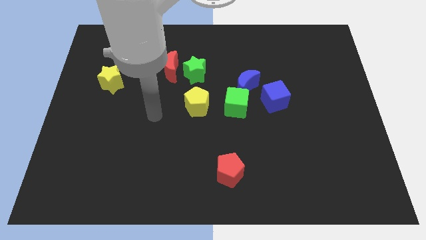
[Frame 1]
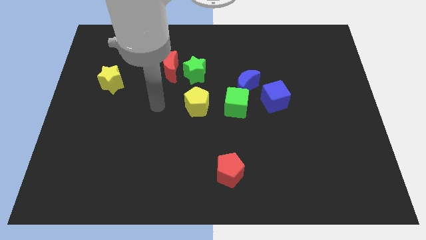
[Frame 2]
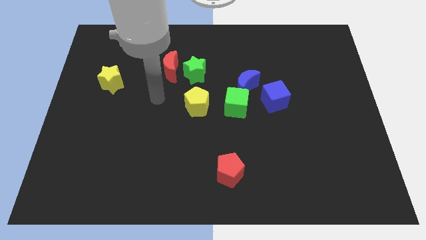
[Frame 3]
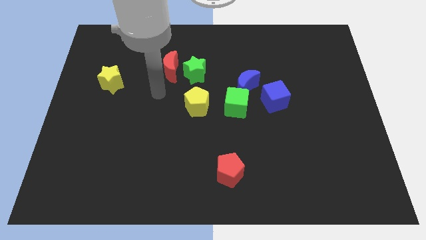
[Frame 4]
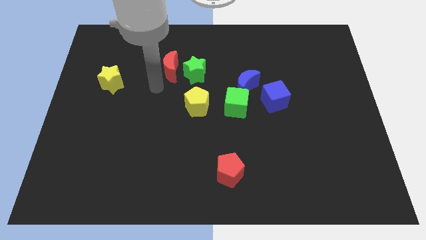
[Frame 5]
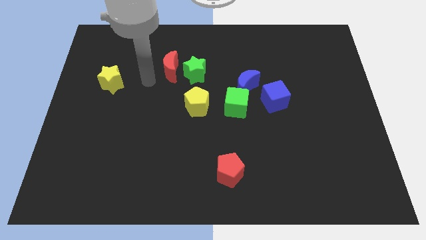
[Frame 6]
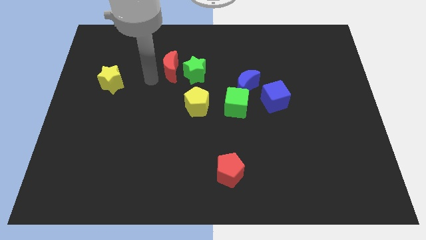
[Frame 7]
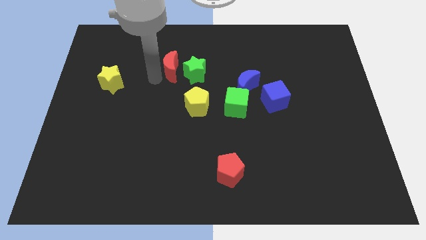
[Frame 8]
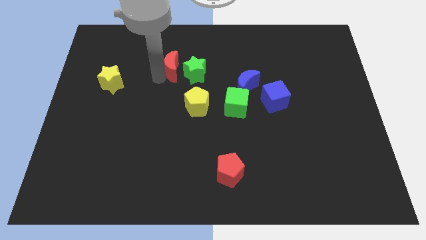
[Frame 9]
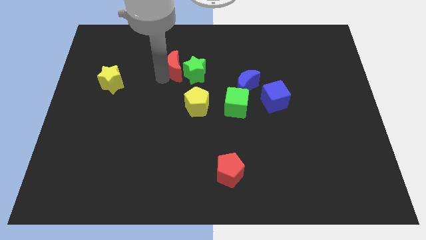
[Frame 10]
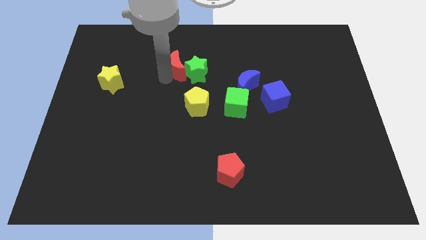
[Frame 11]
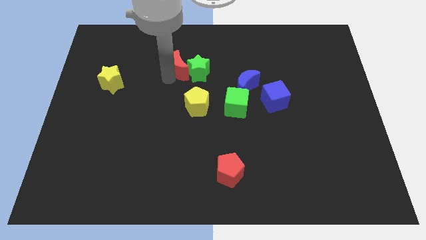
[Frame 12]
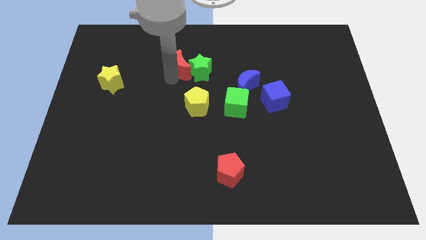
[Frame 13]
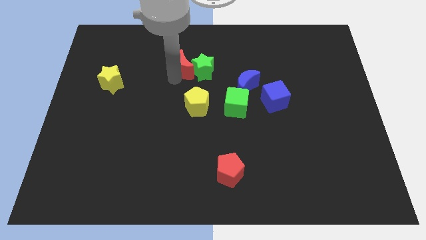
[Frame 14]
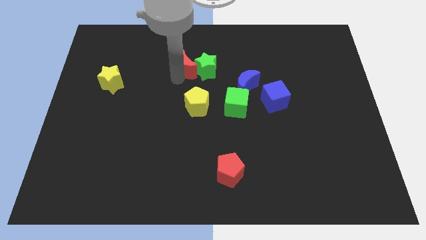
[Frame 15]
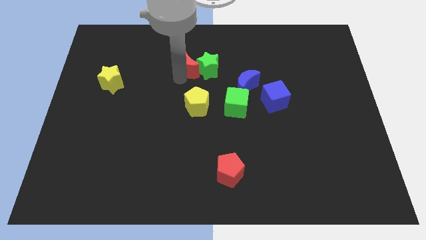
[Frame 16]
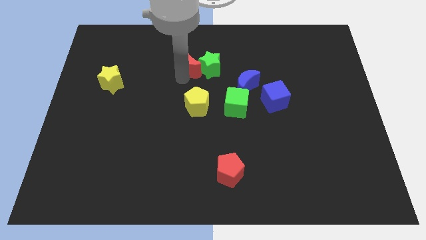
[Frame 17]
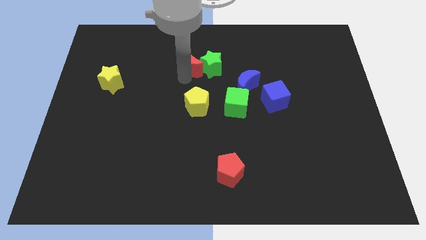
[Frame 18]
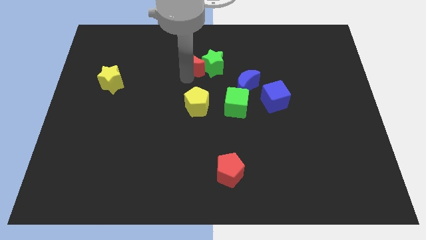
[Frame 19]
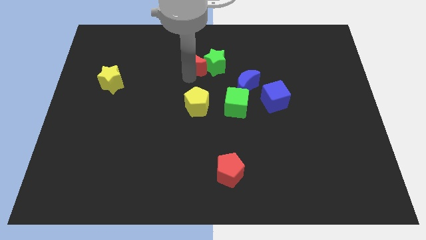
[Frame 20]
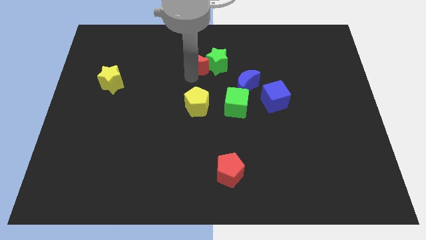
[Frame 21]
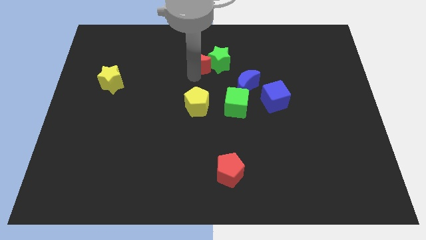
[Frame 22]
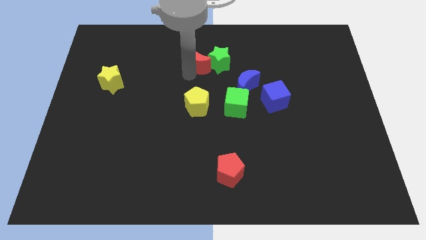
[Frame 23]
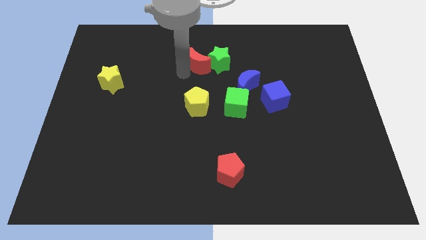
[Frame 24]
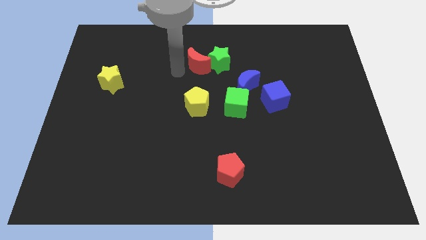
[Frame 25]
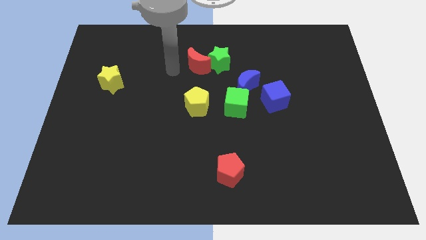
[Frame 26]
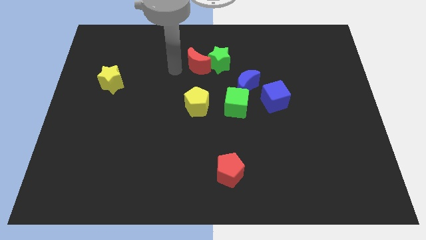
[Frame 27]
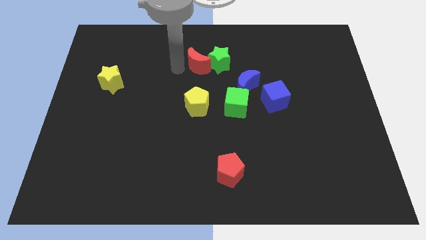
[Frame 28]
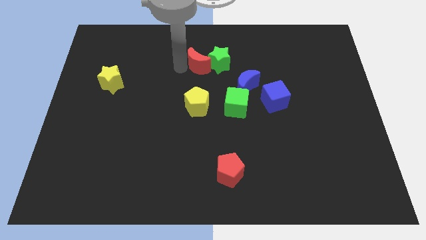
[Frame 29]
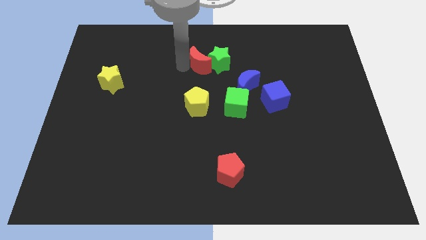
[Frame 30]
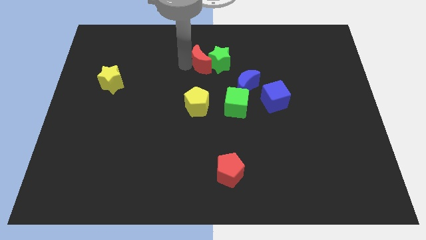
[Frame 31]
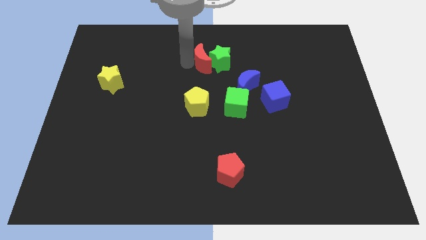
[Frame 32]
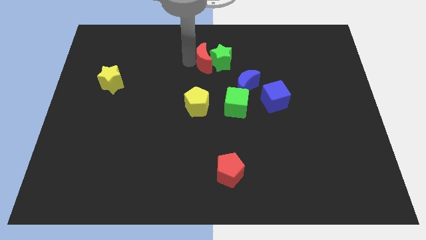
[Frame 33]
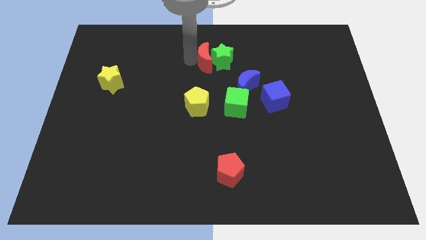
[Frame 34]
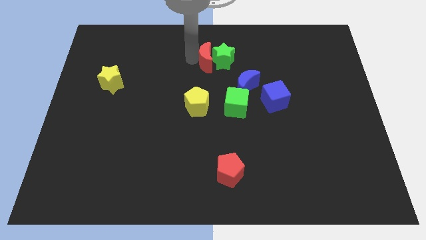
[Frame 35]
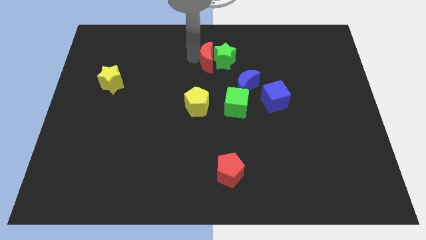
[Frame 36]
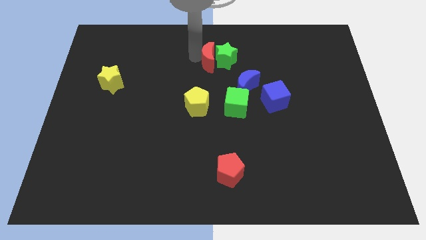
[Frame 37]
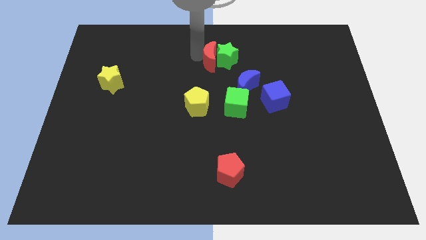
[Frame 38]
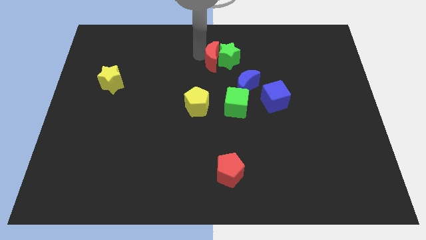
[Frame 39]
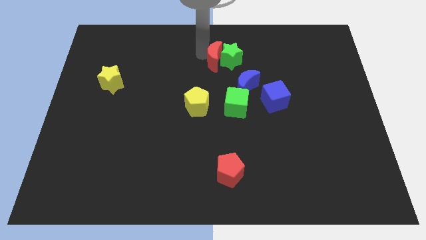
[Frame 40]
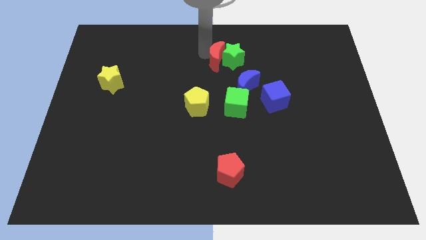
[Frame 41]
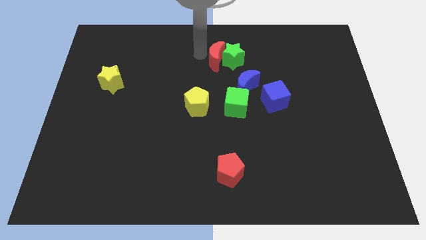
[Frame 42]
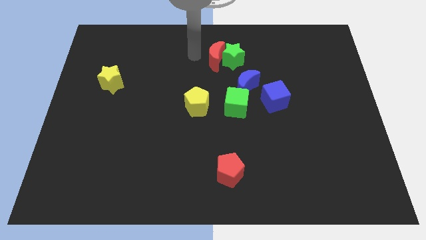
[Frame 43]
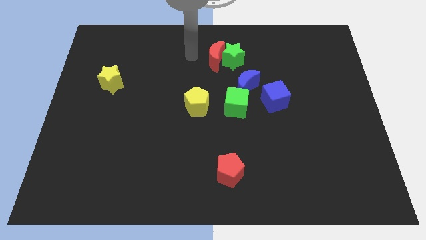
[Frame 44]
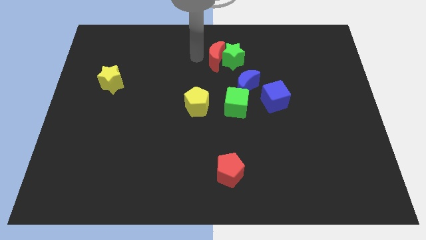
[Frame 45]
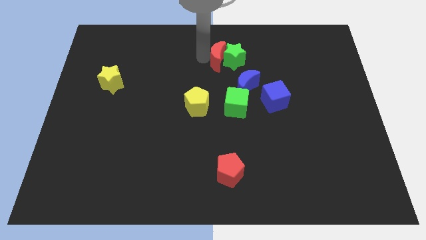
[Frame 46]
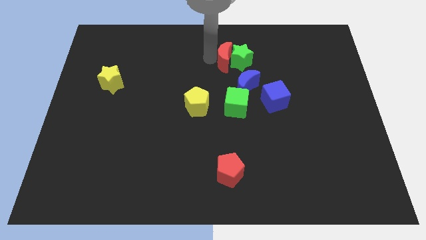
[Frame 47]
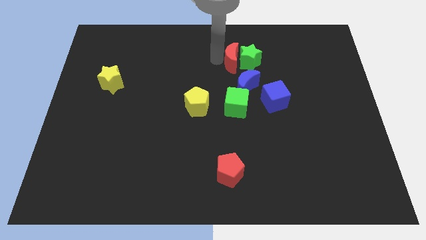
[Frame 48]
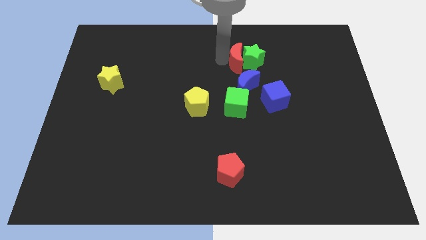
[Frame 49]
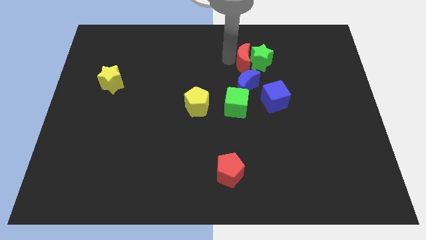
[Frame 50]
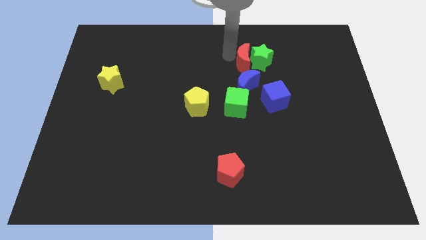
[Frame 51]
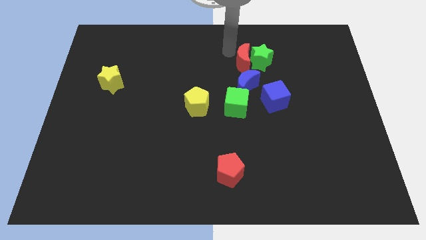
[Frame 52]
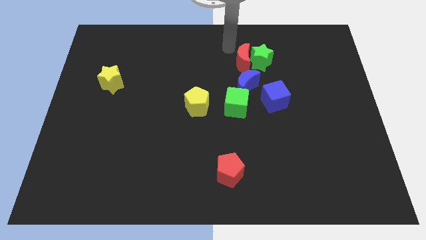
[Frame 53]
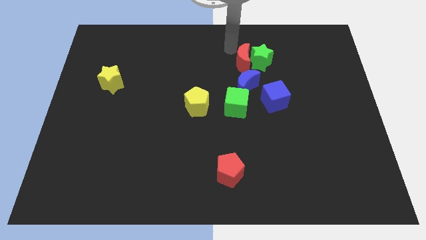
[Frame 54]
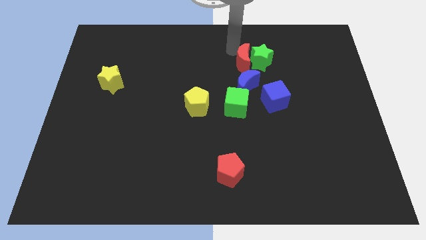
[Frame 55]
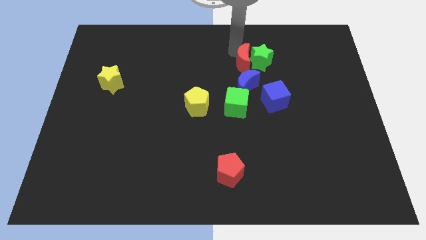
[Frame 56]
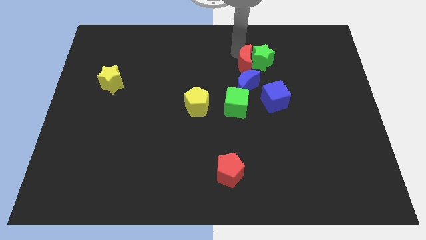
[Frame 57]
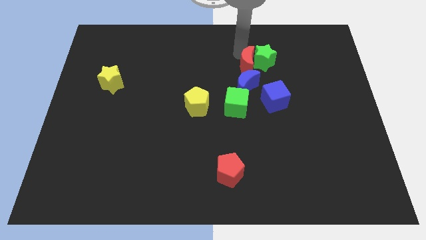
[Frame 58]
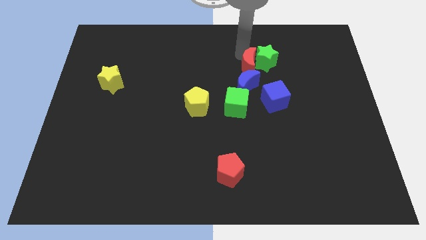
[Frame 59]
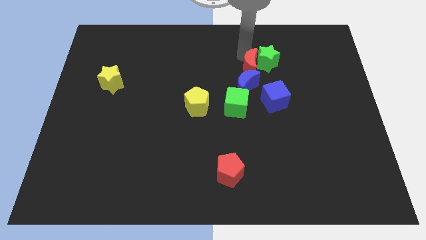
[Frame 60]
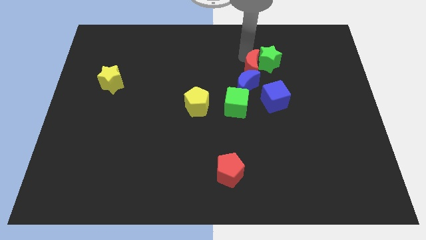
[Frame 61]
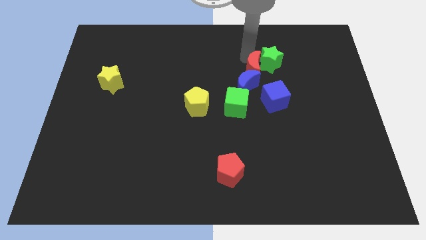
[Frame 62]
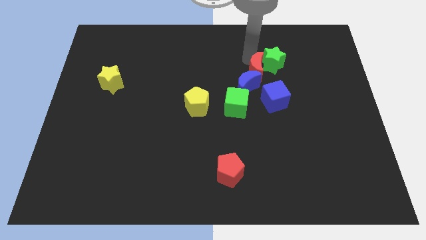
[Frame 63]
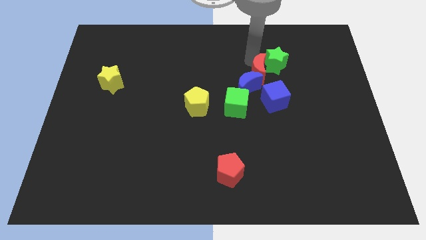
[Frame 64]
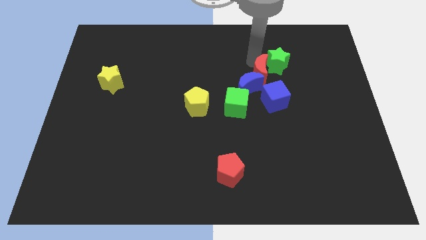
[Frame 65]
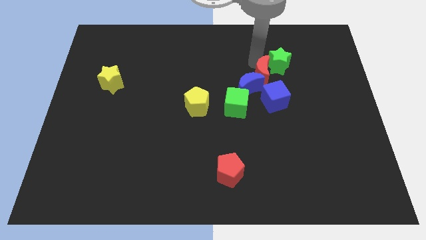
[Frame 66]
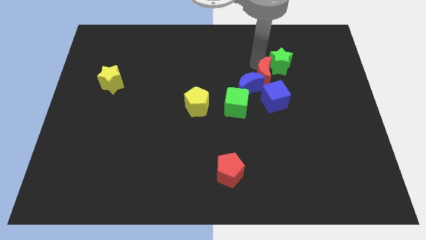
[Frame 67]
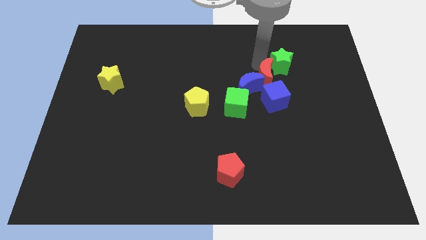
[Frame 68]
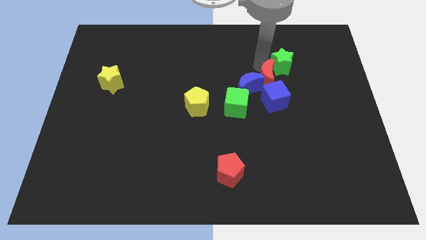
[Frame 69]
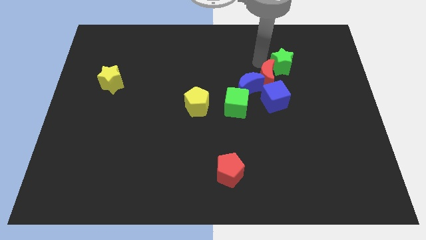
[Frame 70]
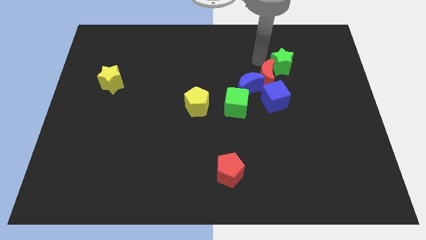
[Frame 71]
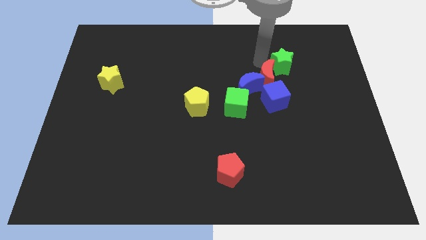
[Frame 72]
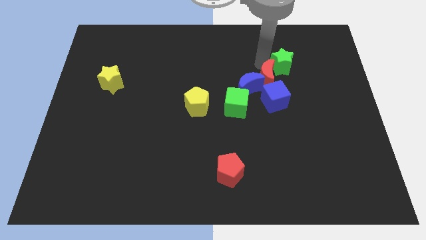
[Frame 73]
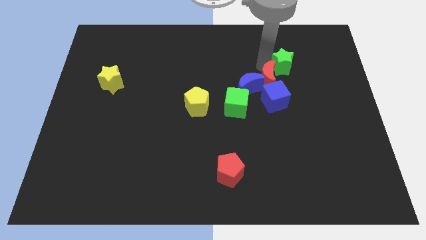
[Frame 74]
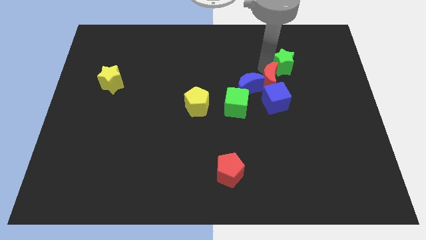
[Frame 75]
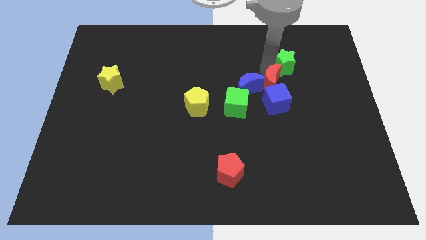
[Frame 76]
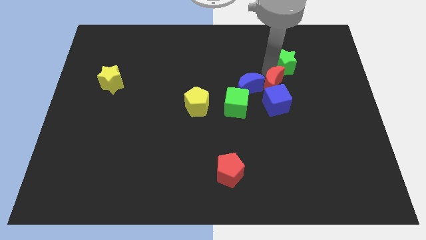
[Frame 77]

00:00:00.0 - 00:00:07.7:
push the red moon to the blue cube

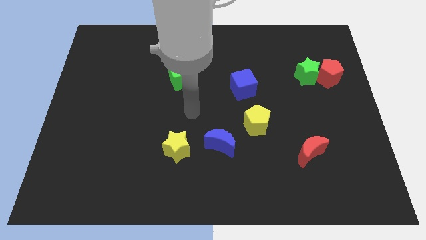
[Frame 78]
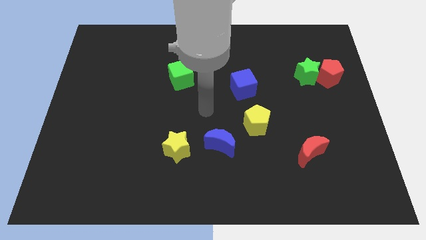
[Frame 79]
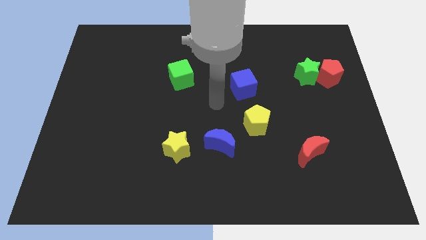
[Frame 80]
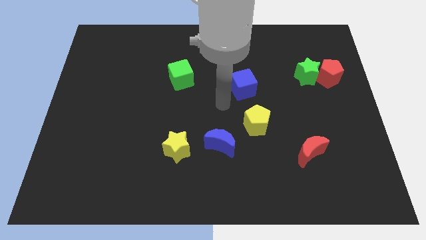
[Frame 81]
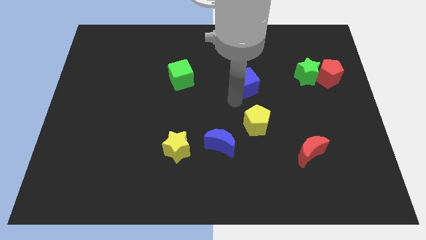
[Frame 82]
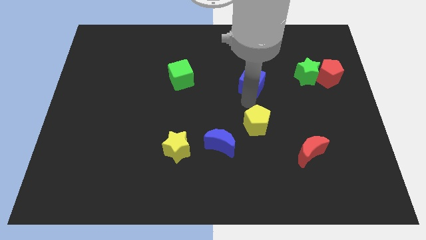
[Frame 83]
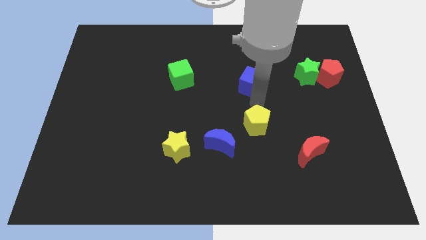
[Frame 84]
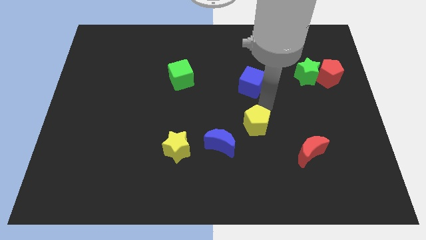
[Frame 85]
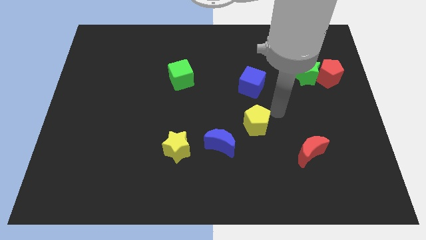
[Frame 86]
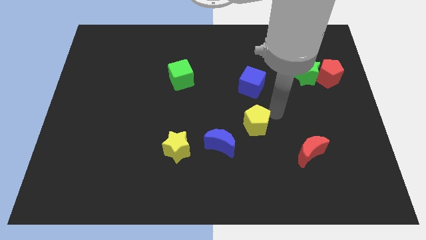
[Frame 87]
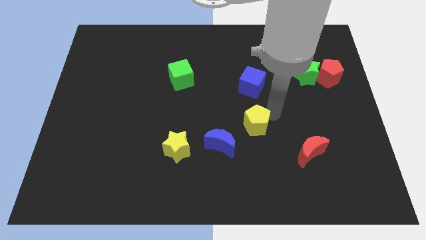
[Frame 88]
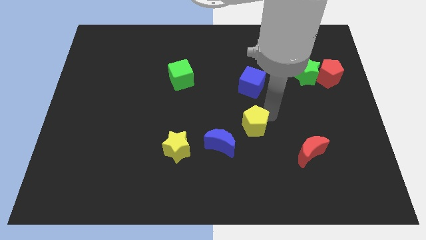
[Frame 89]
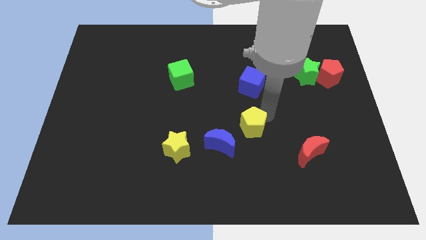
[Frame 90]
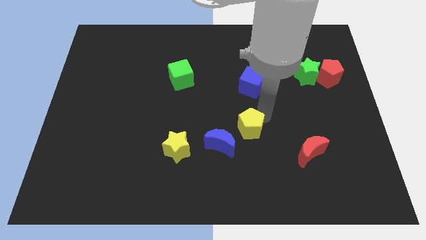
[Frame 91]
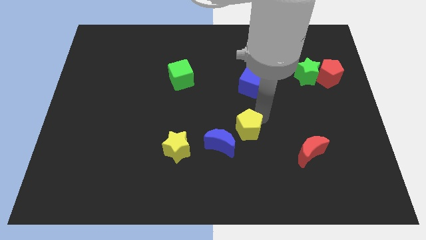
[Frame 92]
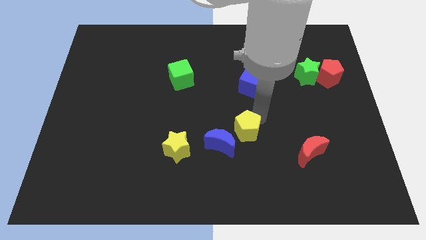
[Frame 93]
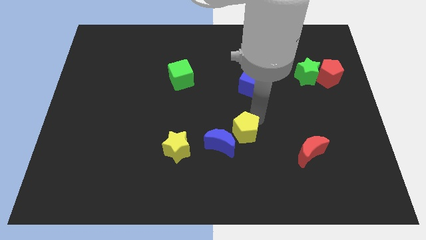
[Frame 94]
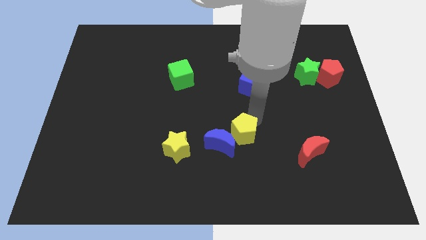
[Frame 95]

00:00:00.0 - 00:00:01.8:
slide the yellow pentagon towards the blue moon
